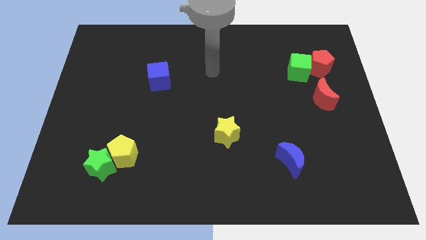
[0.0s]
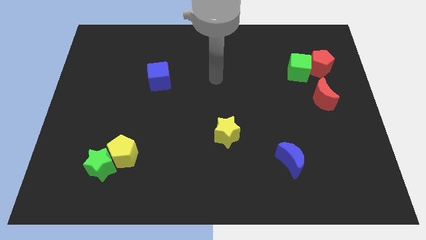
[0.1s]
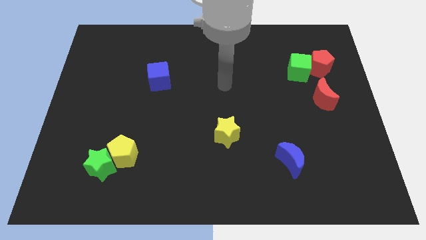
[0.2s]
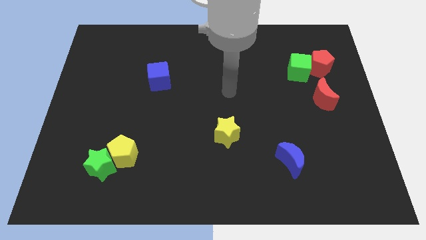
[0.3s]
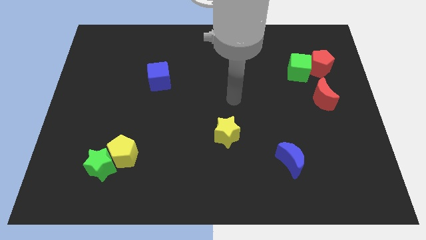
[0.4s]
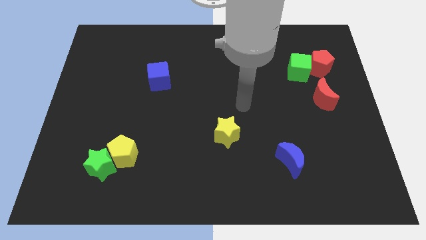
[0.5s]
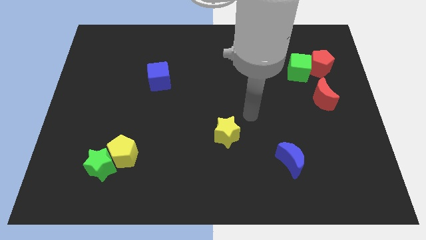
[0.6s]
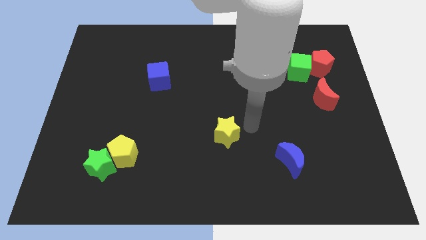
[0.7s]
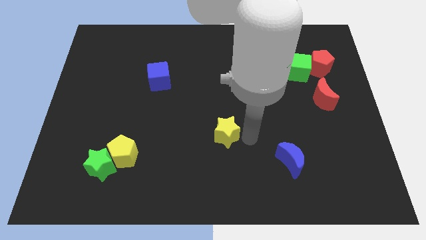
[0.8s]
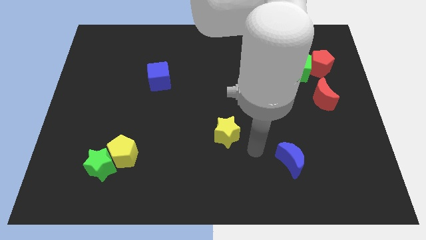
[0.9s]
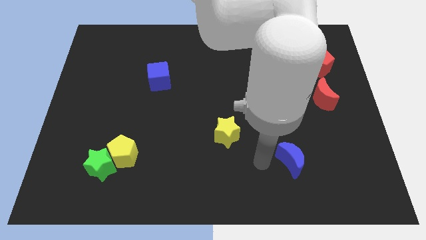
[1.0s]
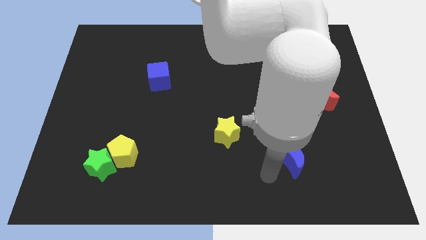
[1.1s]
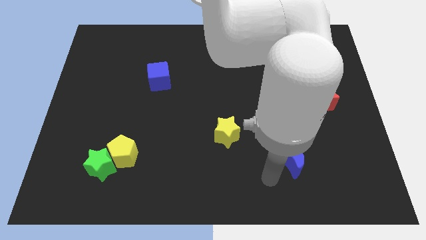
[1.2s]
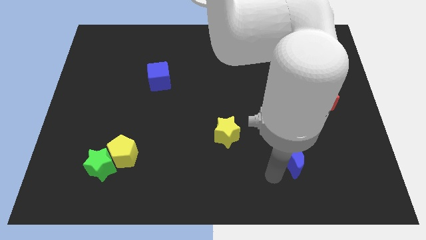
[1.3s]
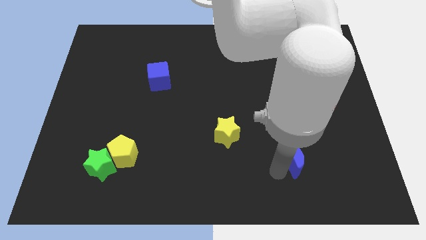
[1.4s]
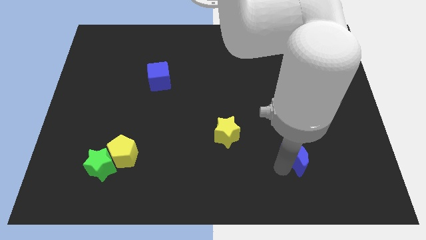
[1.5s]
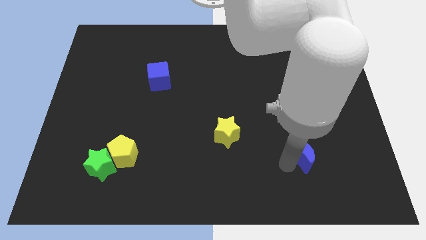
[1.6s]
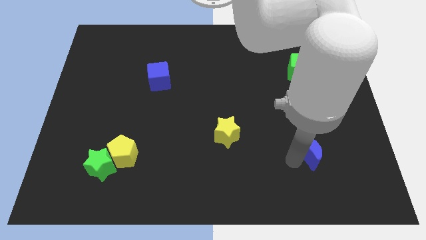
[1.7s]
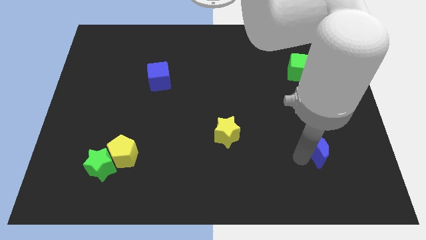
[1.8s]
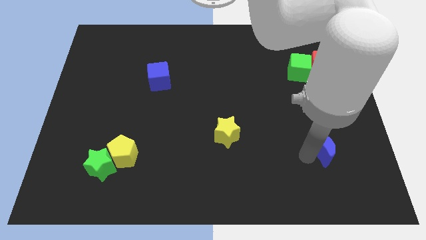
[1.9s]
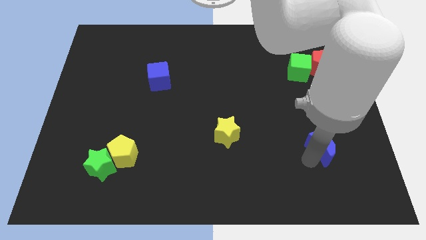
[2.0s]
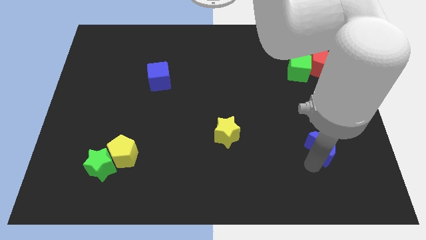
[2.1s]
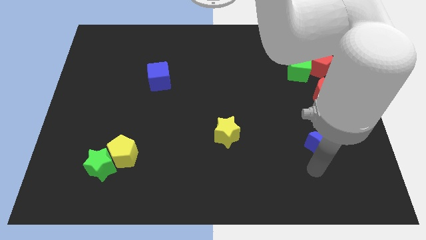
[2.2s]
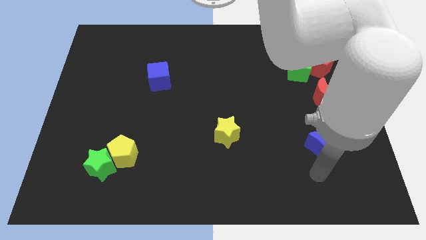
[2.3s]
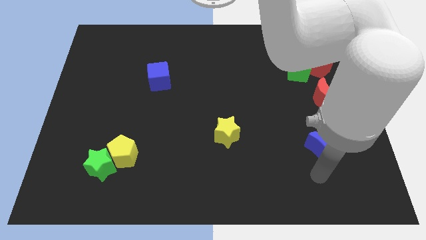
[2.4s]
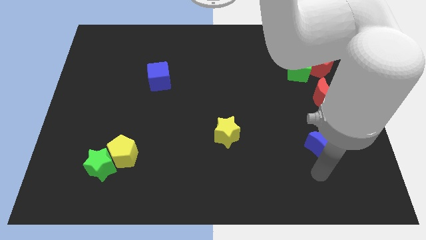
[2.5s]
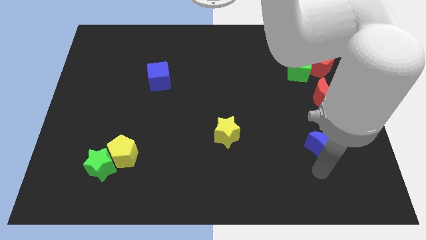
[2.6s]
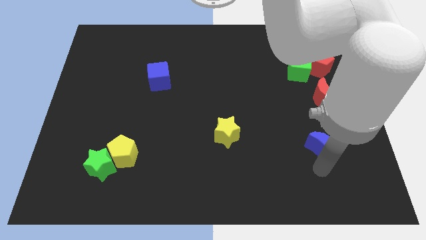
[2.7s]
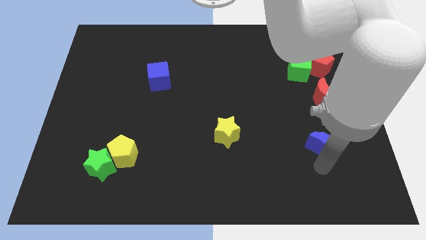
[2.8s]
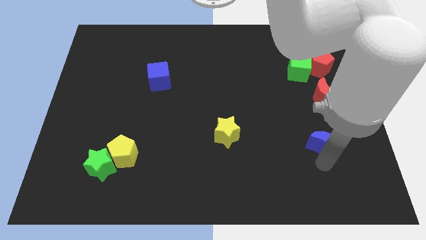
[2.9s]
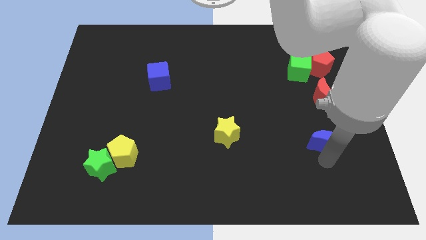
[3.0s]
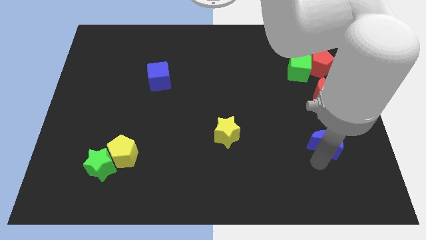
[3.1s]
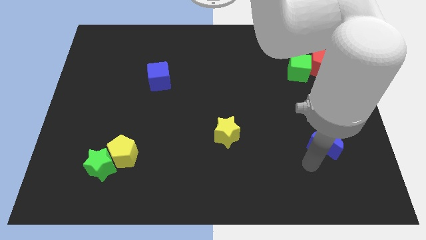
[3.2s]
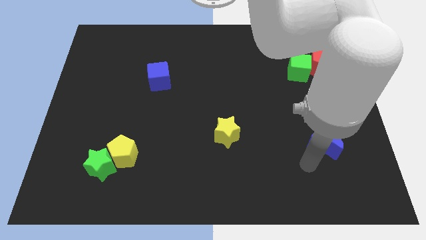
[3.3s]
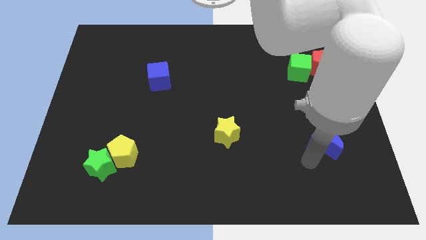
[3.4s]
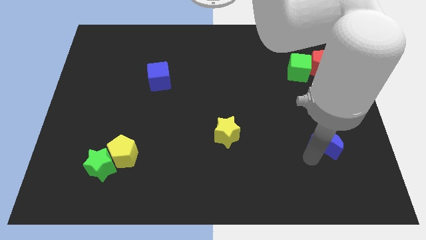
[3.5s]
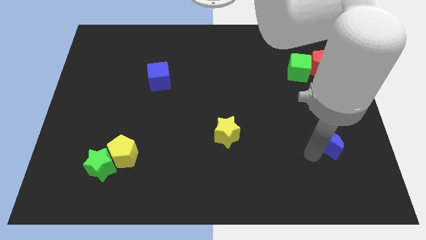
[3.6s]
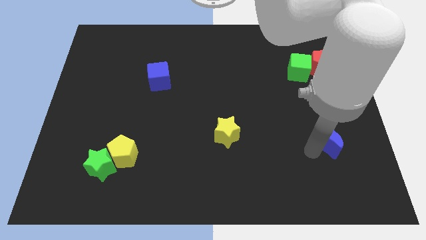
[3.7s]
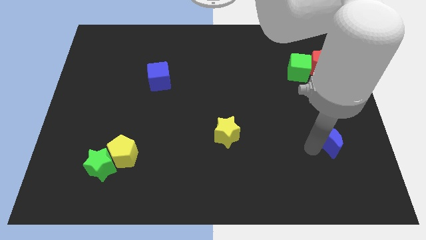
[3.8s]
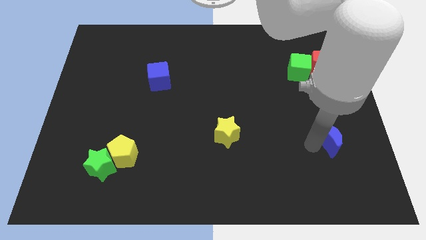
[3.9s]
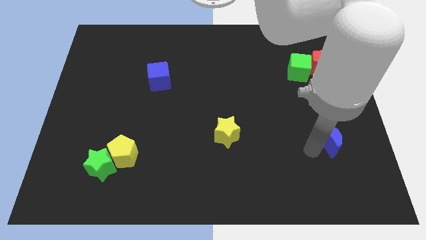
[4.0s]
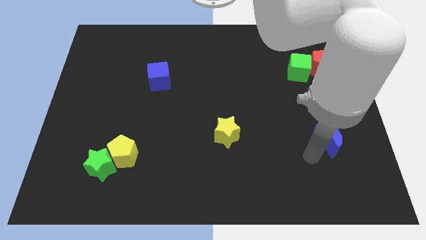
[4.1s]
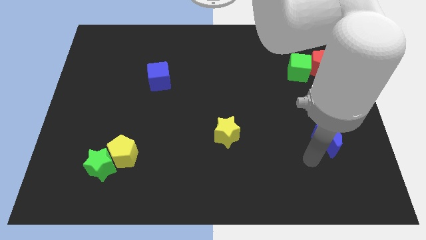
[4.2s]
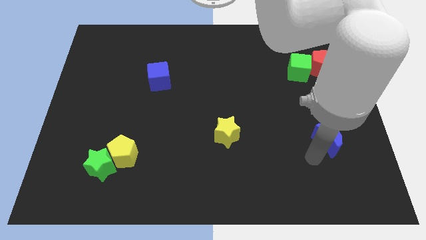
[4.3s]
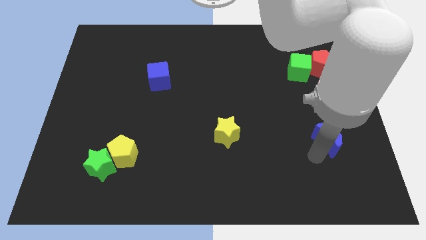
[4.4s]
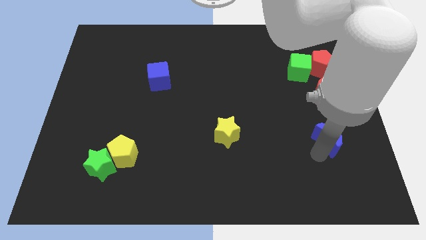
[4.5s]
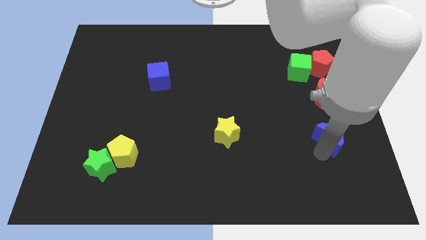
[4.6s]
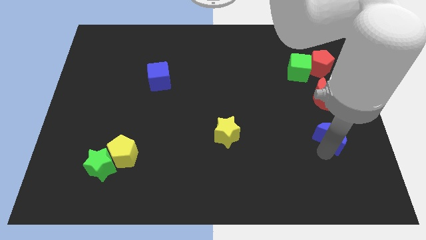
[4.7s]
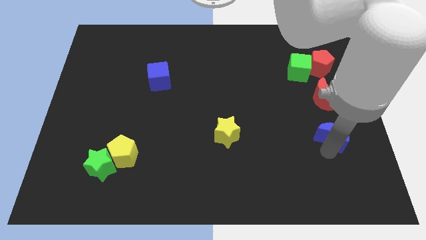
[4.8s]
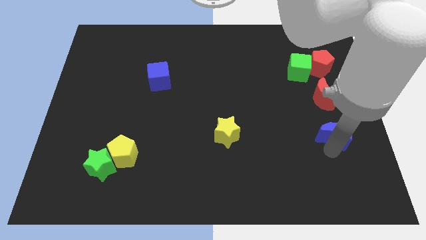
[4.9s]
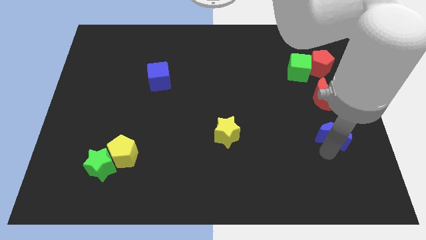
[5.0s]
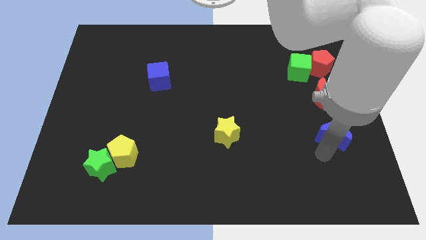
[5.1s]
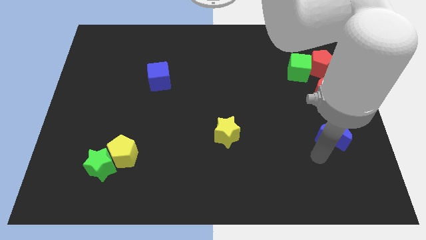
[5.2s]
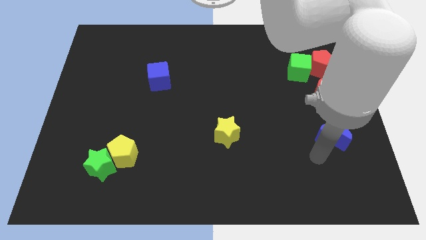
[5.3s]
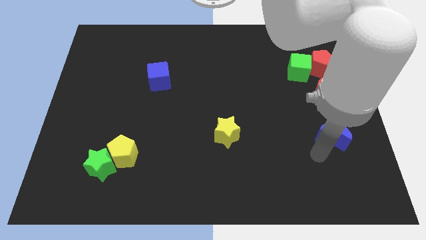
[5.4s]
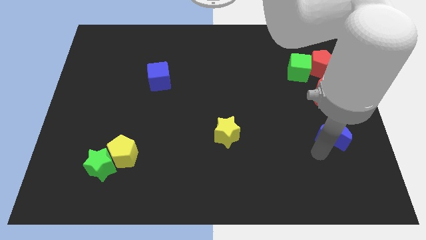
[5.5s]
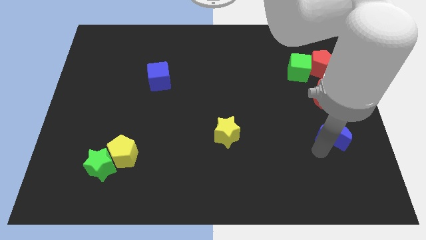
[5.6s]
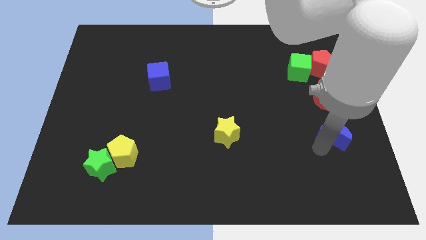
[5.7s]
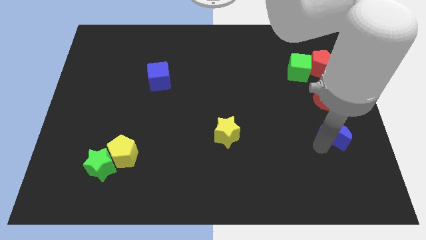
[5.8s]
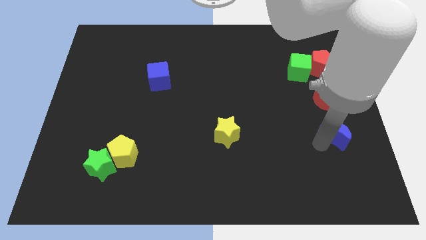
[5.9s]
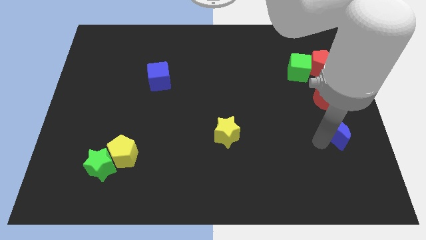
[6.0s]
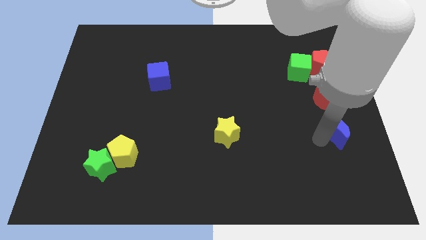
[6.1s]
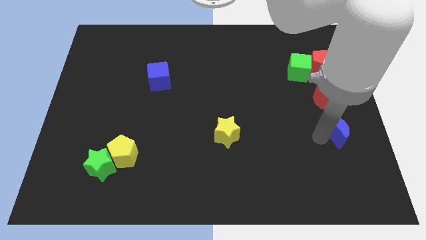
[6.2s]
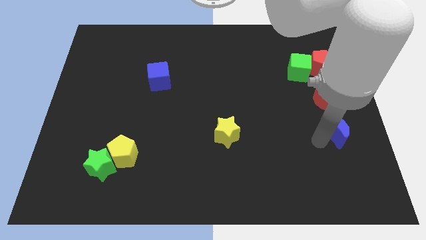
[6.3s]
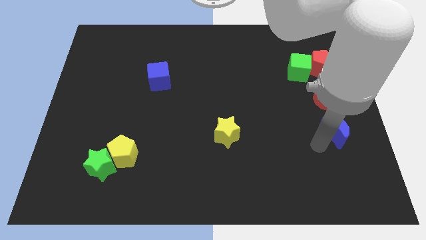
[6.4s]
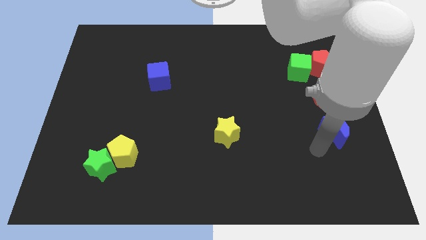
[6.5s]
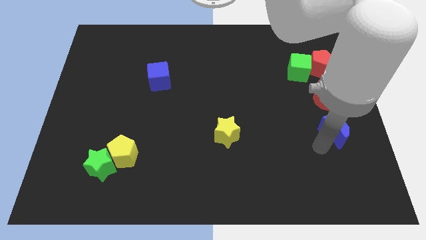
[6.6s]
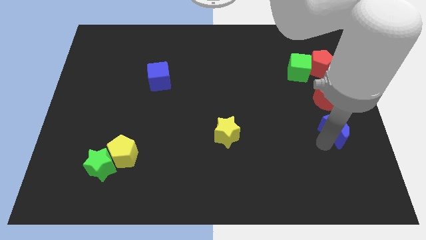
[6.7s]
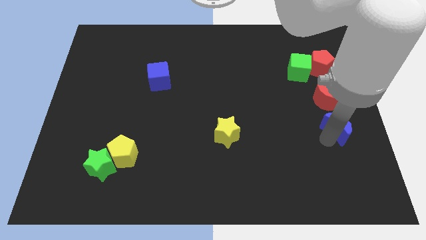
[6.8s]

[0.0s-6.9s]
move the blue moon to the right side of the board

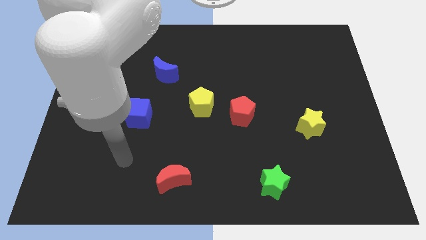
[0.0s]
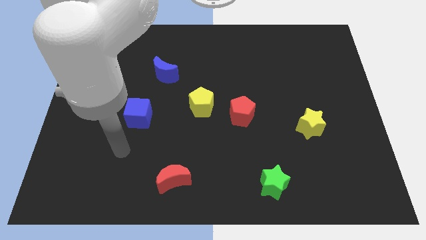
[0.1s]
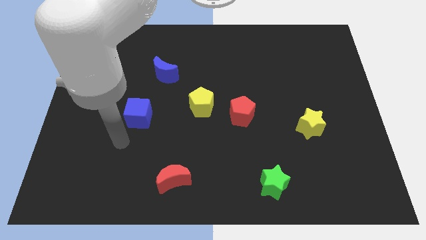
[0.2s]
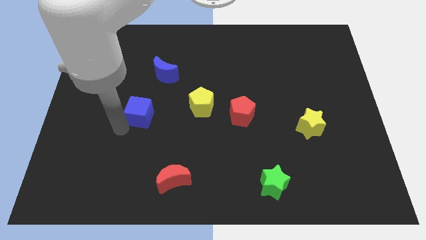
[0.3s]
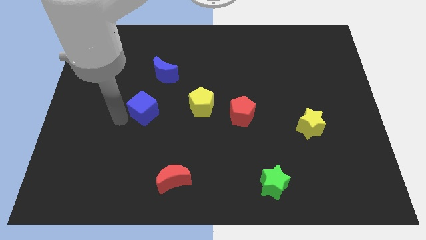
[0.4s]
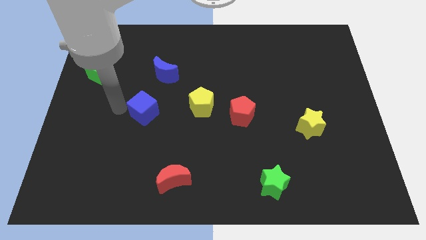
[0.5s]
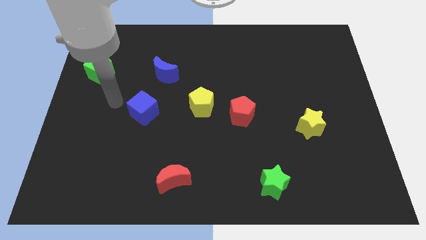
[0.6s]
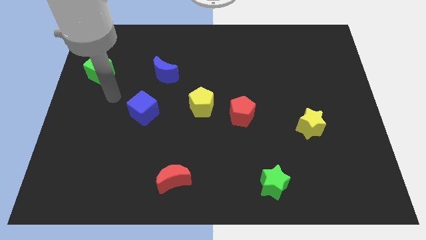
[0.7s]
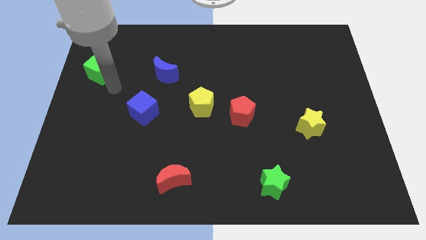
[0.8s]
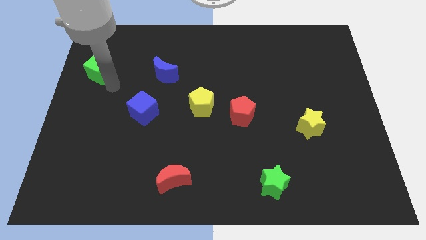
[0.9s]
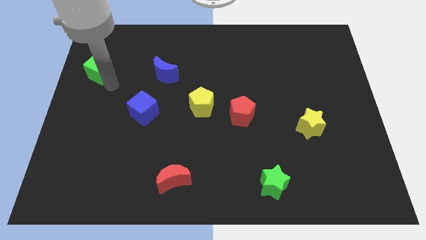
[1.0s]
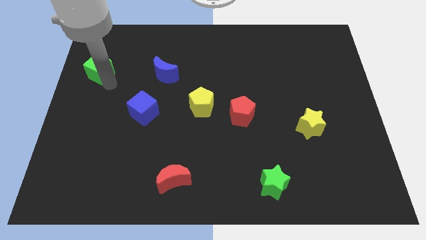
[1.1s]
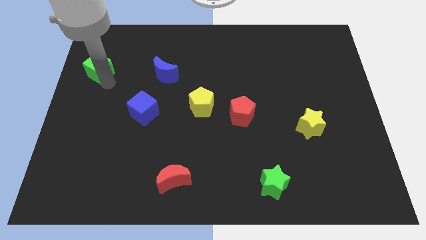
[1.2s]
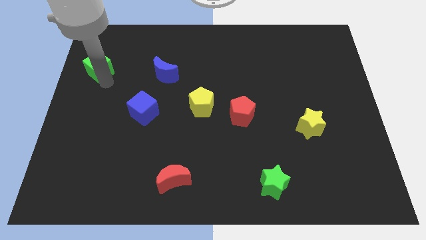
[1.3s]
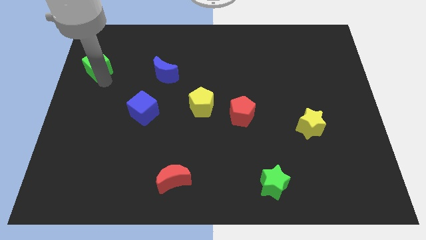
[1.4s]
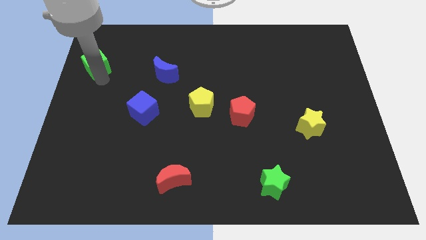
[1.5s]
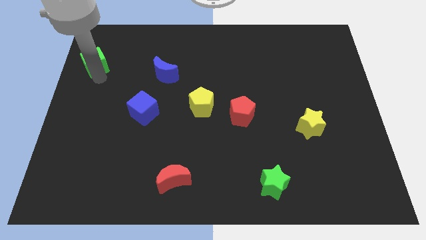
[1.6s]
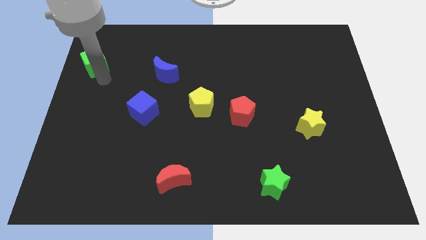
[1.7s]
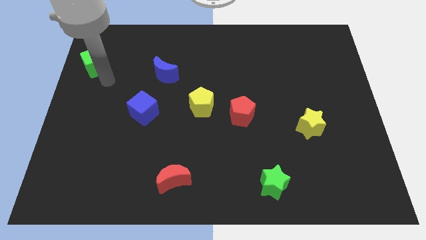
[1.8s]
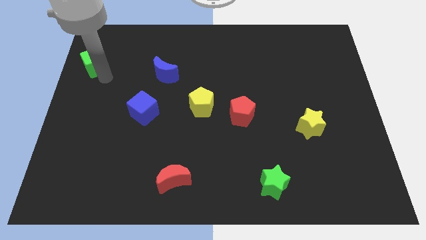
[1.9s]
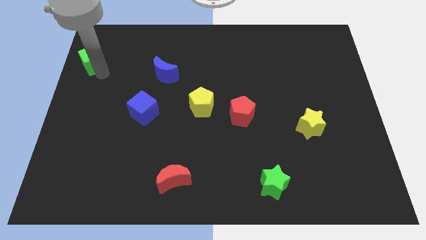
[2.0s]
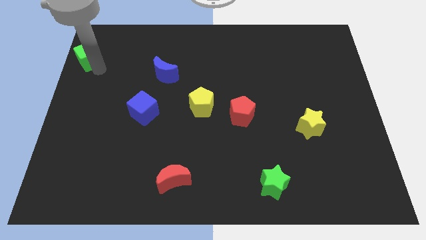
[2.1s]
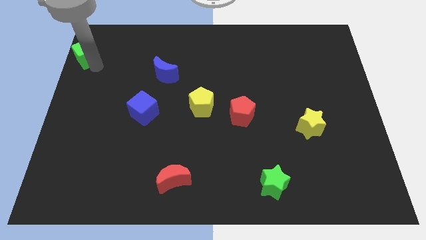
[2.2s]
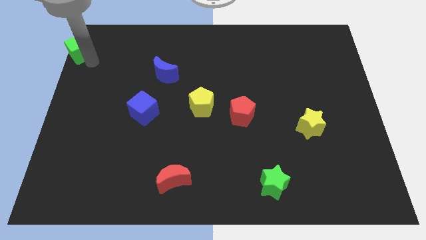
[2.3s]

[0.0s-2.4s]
slide the green cube to the top left corner
